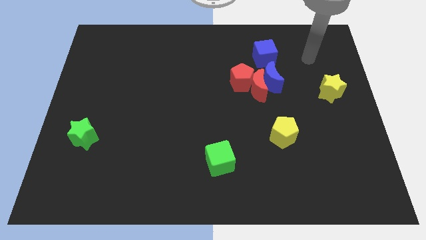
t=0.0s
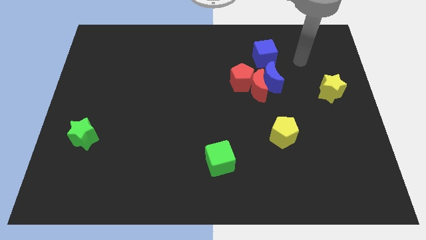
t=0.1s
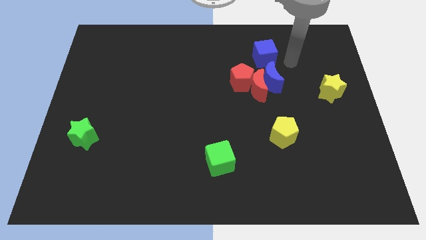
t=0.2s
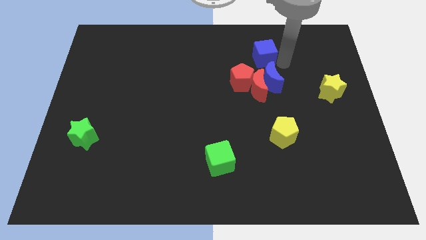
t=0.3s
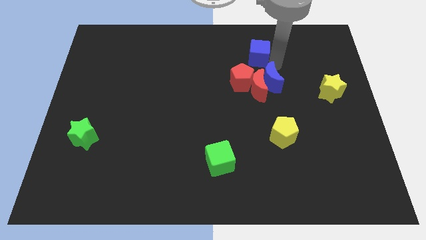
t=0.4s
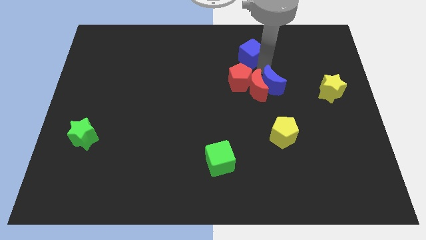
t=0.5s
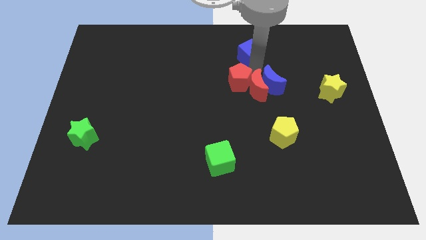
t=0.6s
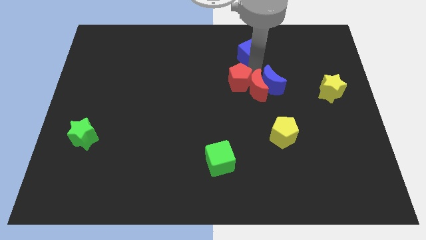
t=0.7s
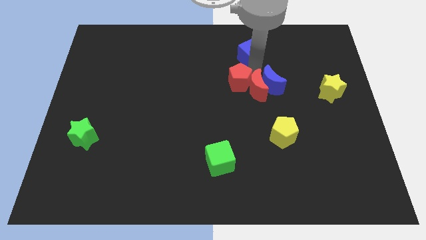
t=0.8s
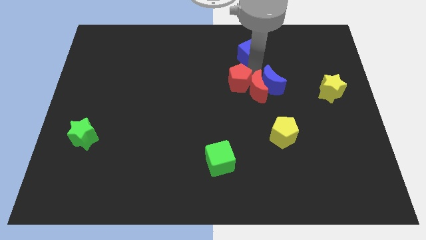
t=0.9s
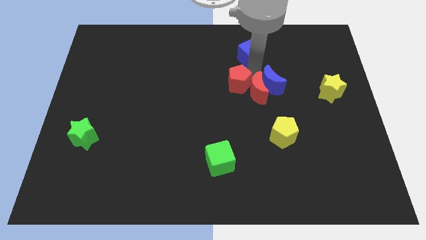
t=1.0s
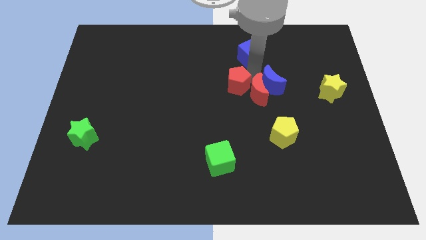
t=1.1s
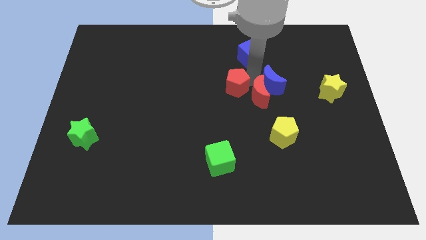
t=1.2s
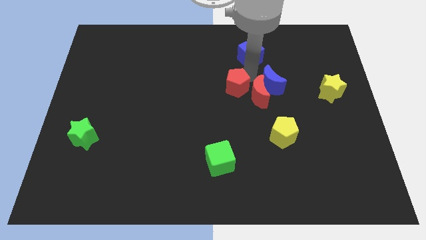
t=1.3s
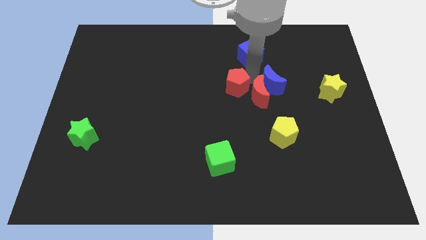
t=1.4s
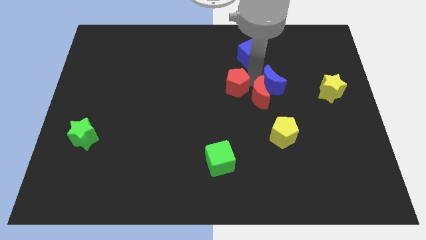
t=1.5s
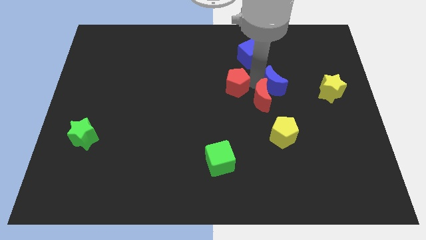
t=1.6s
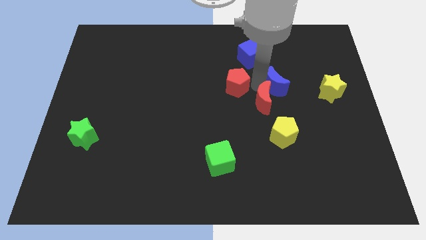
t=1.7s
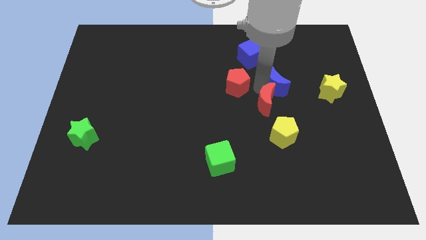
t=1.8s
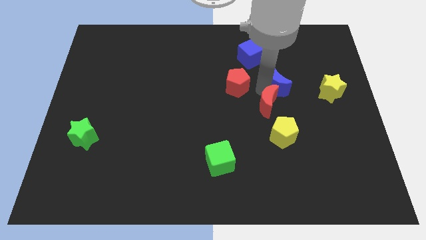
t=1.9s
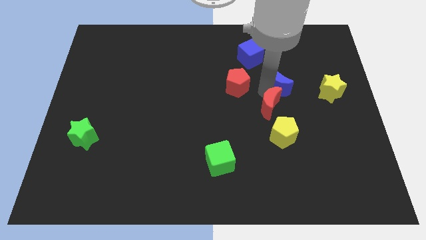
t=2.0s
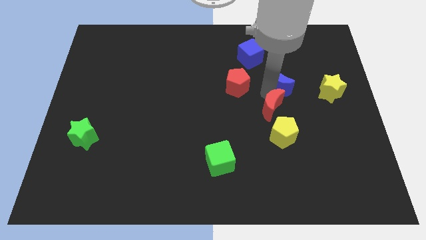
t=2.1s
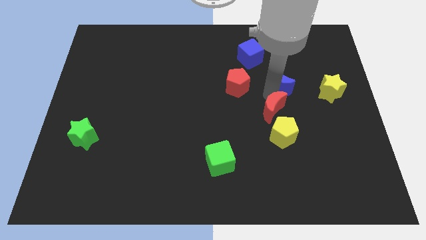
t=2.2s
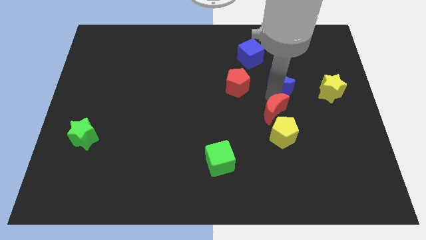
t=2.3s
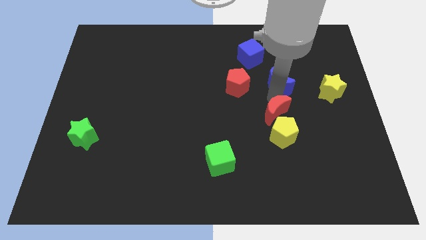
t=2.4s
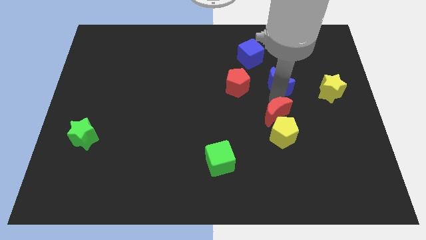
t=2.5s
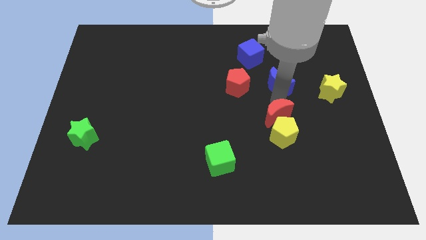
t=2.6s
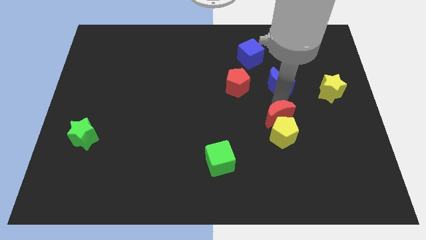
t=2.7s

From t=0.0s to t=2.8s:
move the red moon away from the blue moon and red pentagon

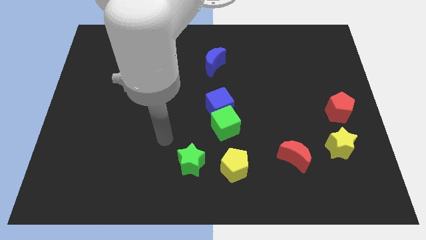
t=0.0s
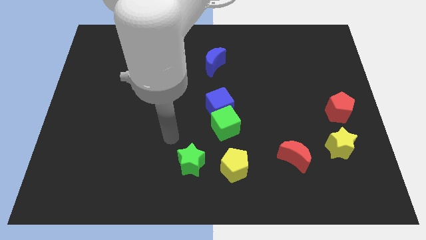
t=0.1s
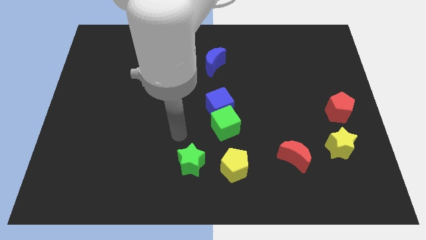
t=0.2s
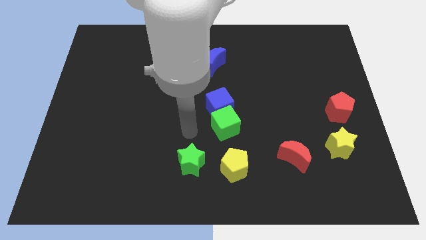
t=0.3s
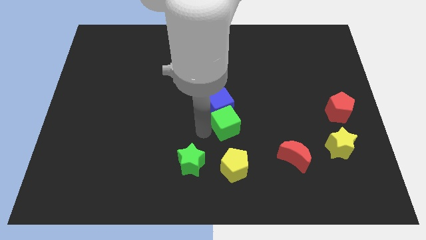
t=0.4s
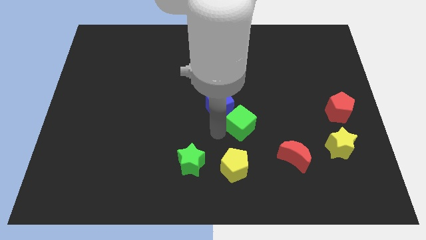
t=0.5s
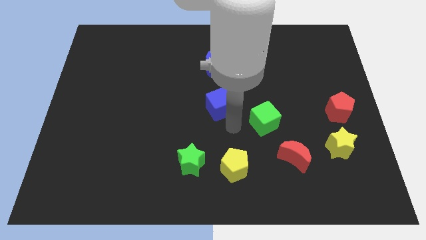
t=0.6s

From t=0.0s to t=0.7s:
separate the blue cube from the green cube

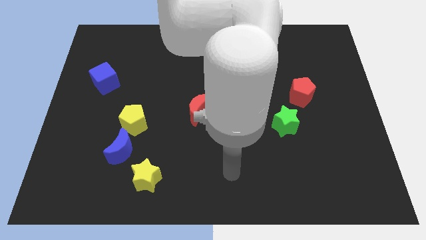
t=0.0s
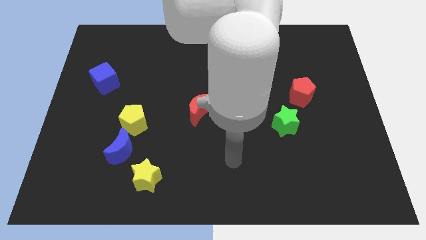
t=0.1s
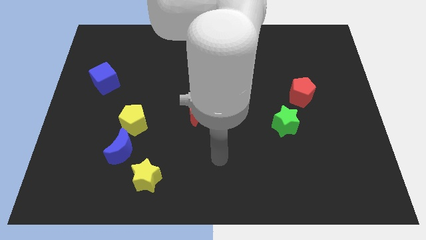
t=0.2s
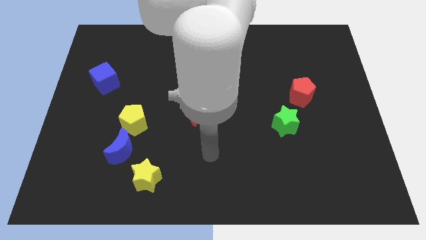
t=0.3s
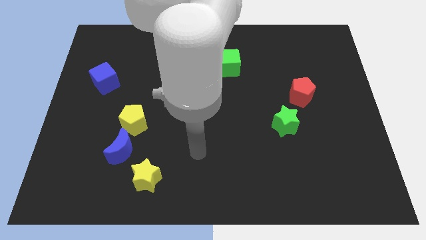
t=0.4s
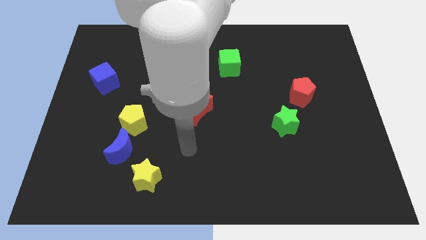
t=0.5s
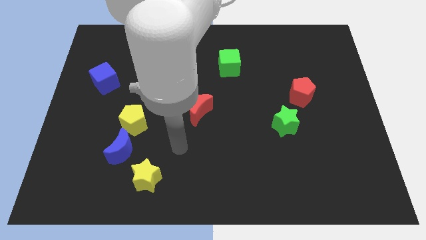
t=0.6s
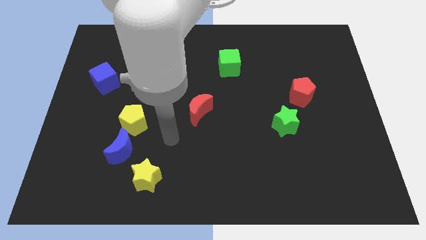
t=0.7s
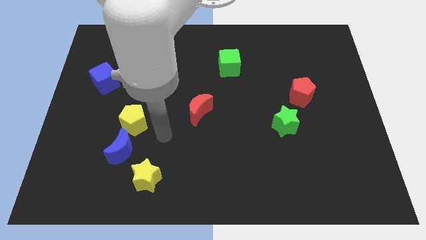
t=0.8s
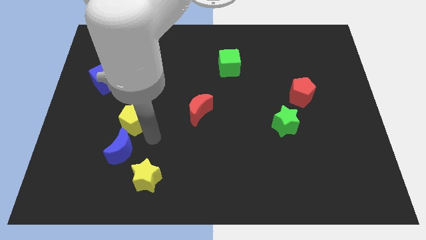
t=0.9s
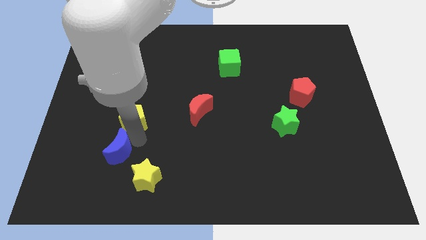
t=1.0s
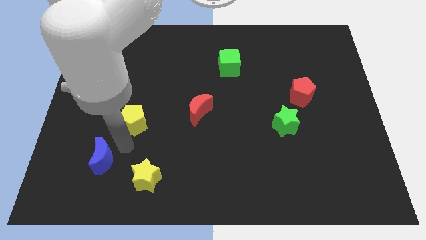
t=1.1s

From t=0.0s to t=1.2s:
pull the yellow pentagon apart from the blue moon

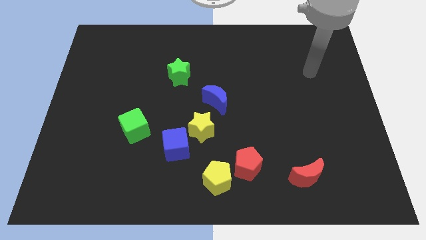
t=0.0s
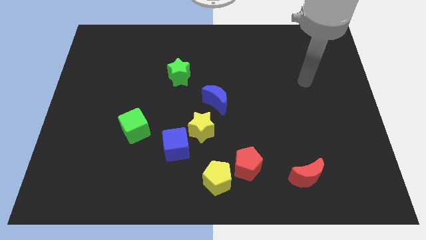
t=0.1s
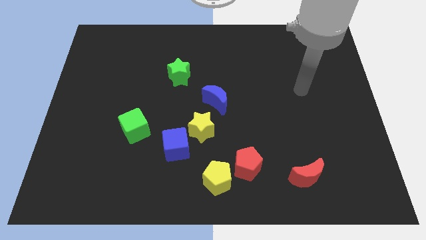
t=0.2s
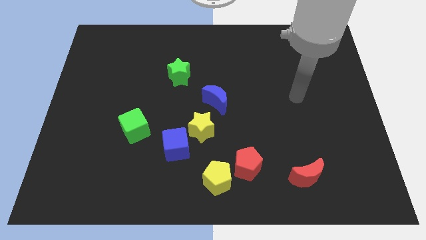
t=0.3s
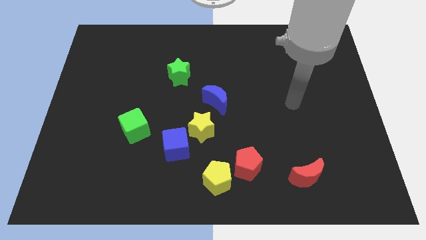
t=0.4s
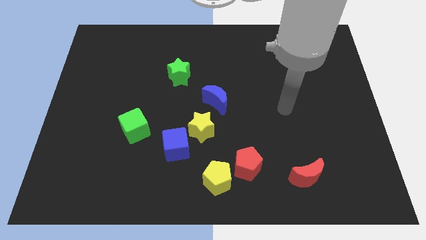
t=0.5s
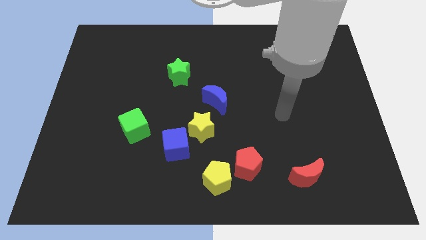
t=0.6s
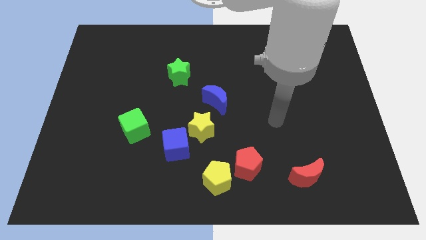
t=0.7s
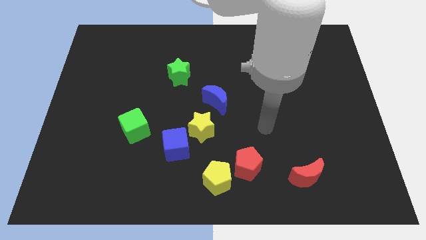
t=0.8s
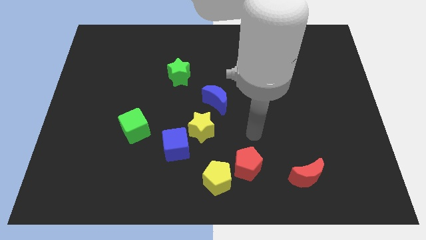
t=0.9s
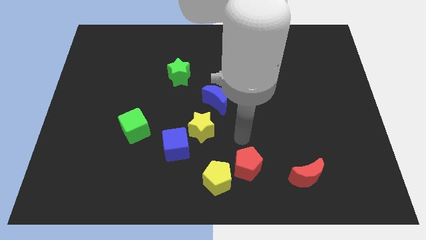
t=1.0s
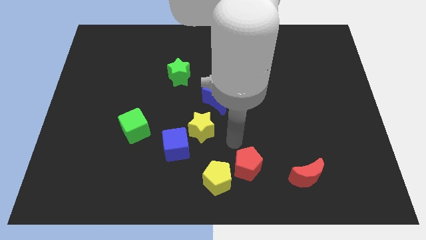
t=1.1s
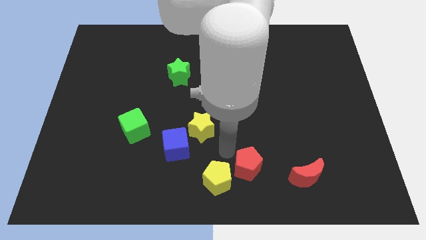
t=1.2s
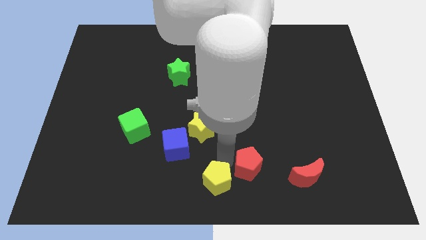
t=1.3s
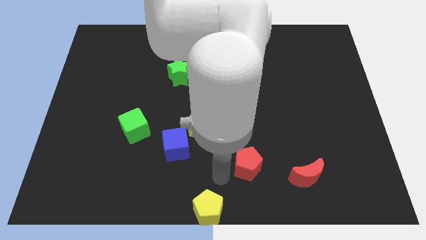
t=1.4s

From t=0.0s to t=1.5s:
move the red pentagon away from the yellow pentagon

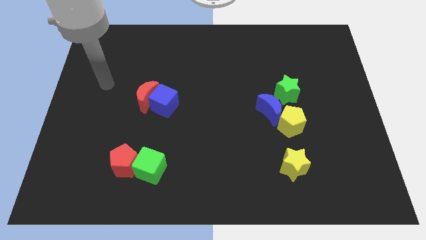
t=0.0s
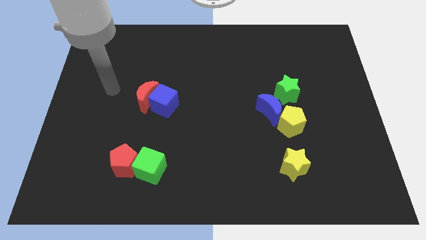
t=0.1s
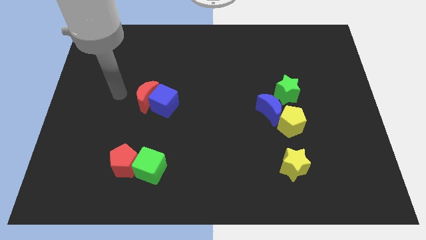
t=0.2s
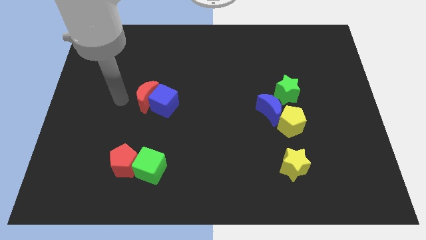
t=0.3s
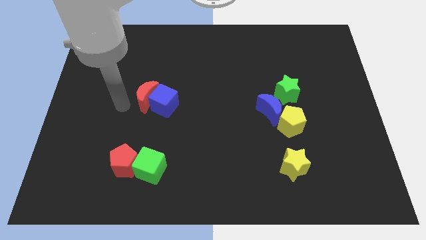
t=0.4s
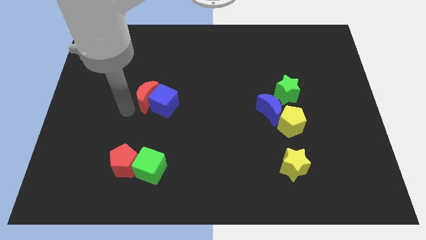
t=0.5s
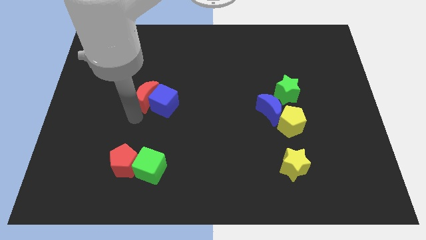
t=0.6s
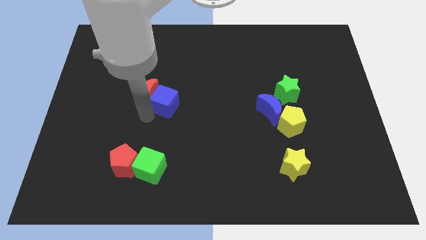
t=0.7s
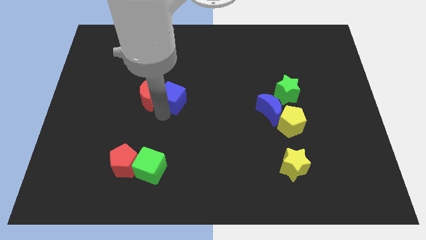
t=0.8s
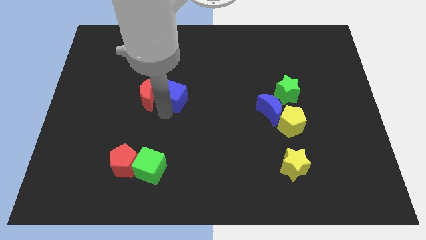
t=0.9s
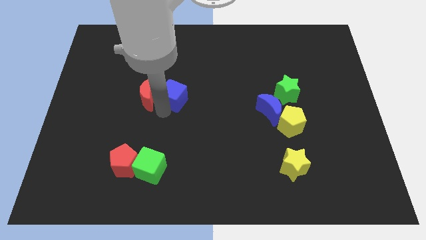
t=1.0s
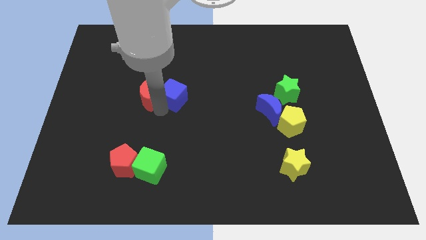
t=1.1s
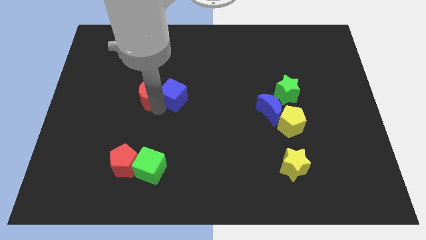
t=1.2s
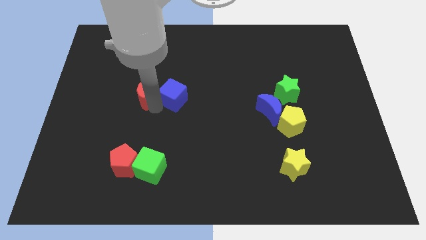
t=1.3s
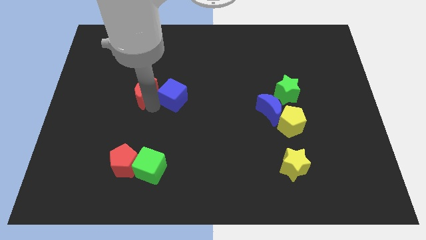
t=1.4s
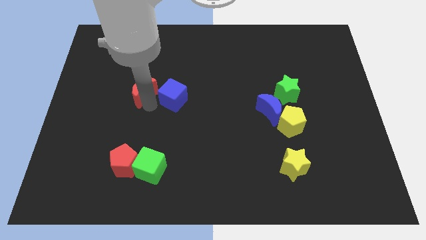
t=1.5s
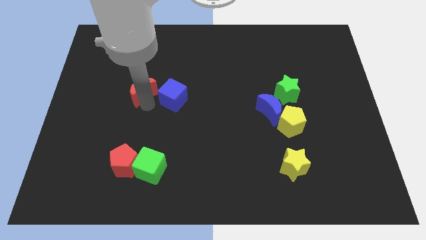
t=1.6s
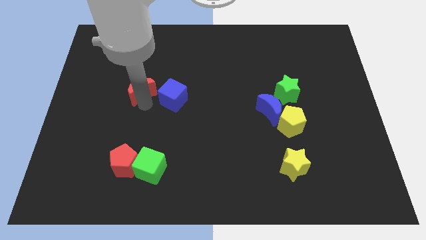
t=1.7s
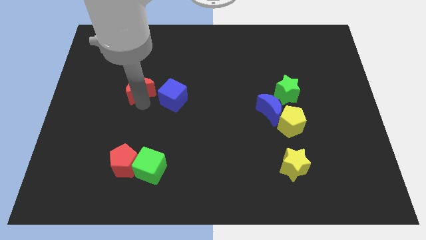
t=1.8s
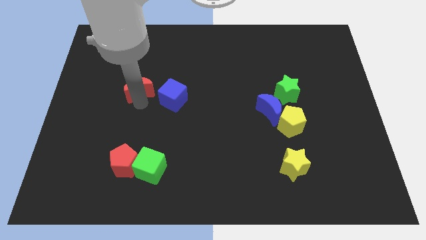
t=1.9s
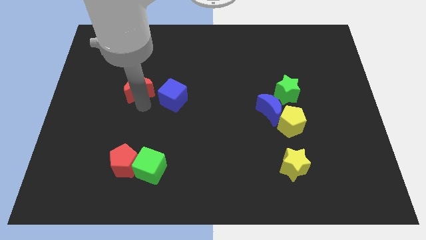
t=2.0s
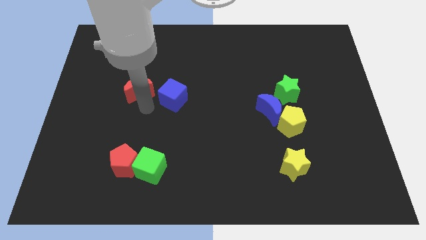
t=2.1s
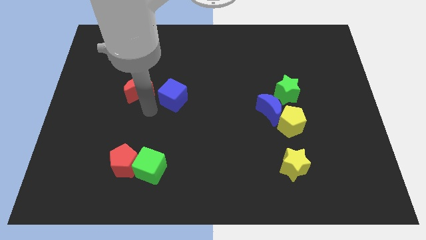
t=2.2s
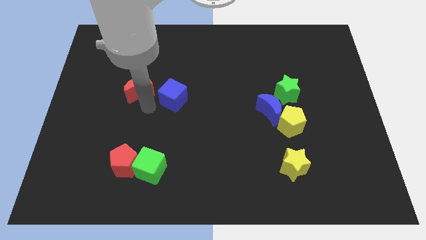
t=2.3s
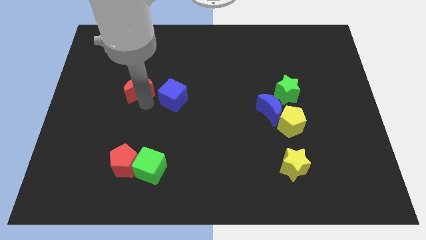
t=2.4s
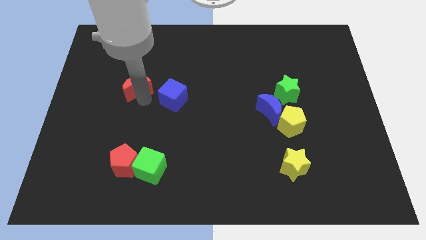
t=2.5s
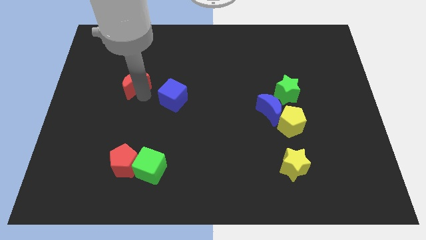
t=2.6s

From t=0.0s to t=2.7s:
move the red moon away from the blue cube

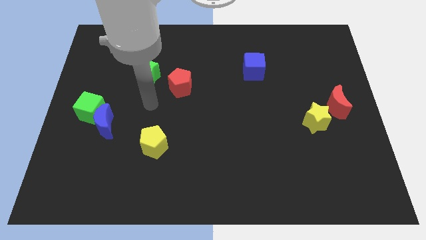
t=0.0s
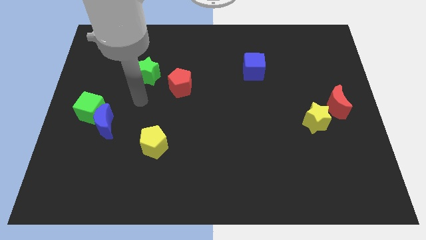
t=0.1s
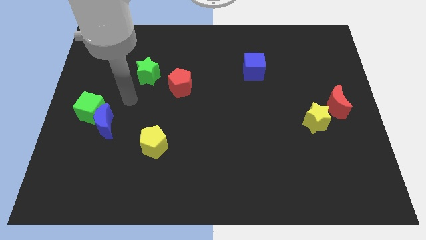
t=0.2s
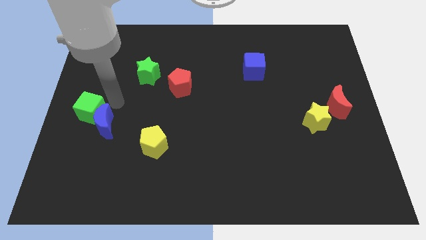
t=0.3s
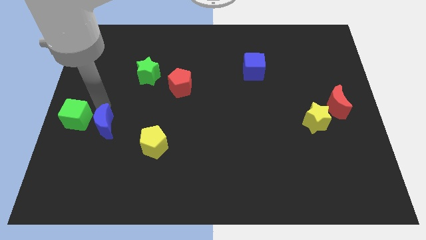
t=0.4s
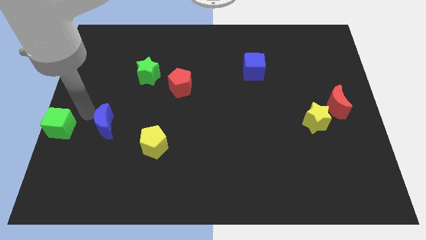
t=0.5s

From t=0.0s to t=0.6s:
move the blue moon away from the green cube
